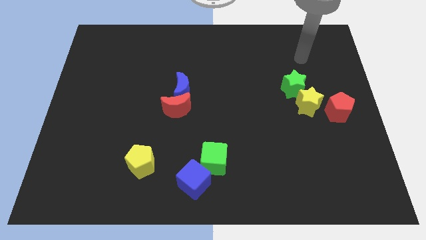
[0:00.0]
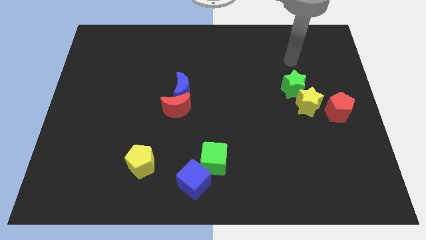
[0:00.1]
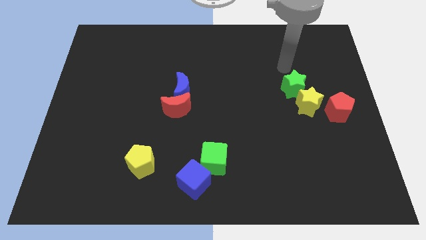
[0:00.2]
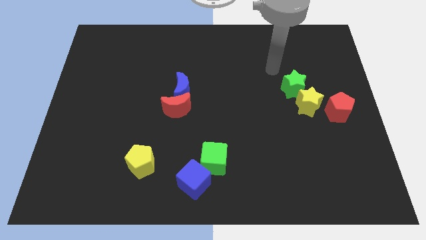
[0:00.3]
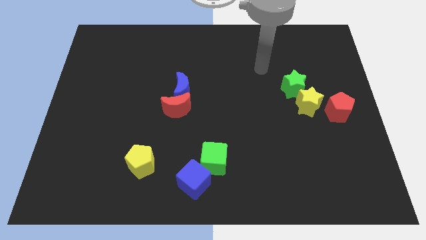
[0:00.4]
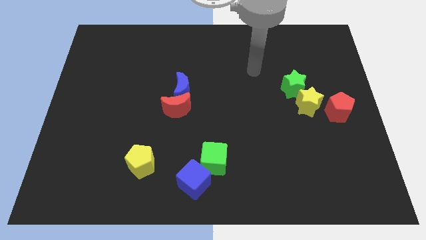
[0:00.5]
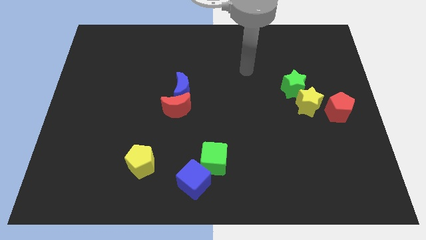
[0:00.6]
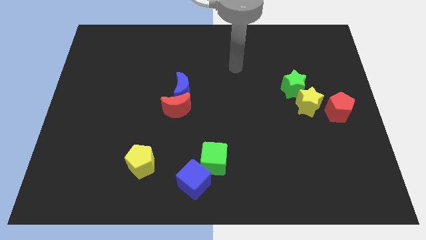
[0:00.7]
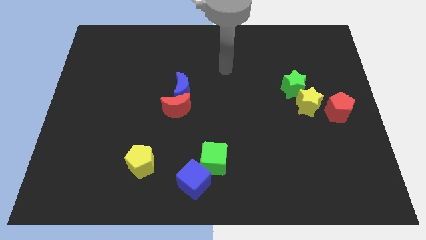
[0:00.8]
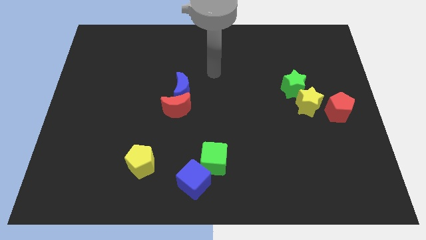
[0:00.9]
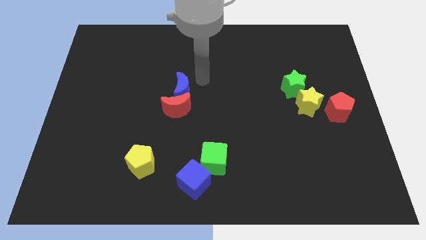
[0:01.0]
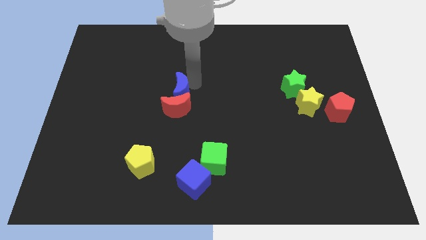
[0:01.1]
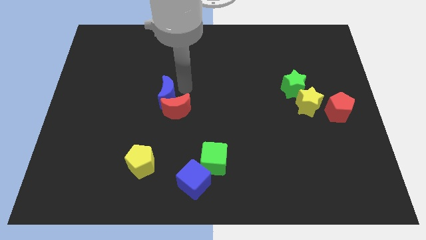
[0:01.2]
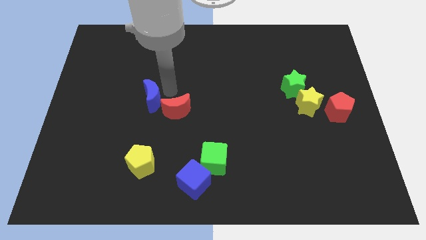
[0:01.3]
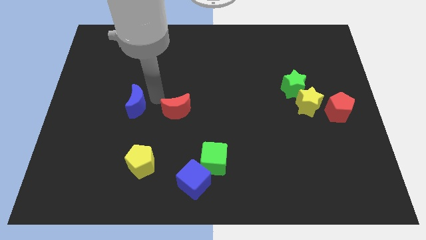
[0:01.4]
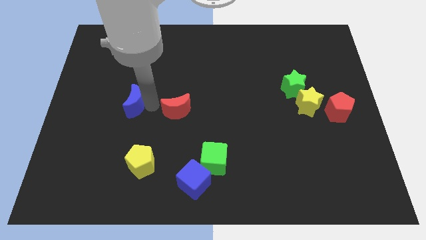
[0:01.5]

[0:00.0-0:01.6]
move the red moon away from the blue moon

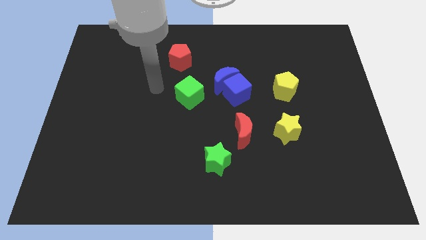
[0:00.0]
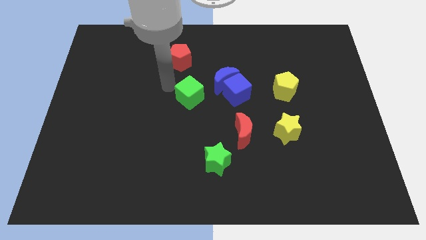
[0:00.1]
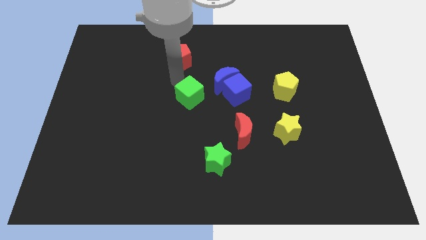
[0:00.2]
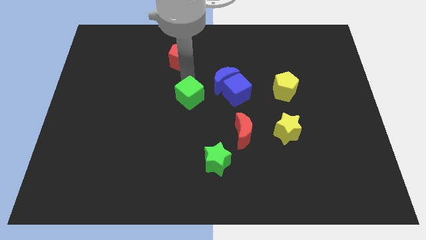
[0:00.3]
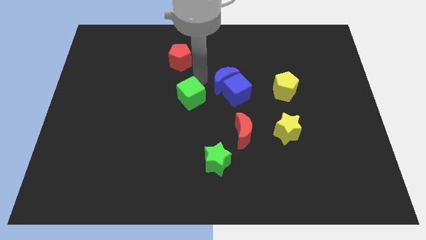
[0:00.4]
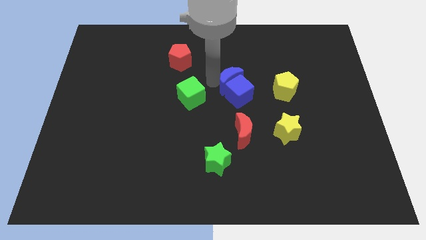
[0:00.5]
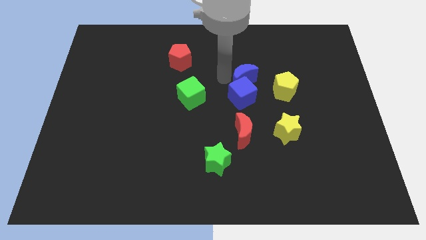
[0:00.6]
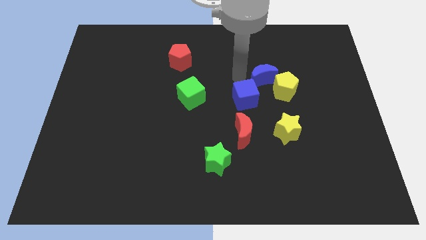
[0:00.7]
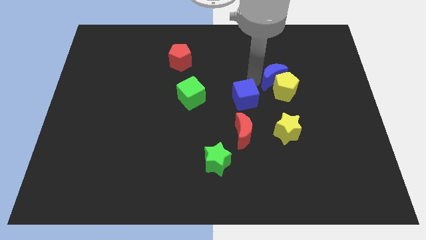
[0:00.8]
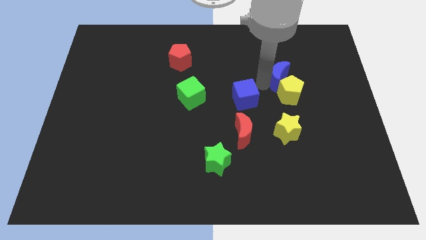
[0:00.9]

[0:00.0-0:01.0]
move the blue cube away from the blue moon

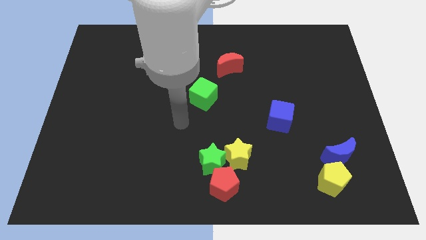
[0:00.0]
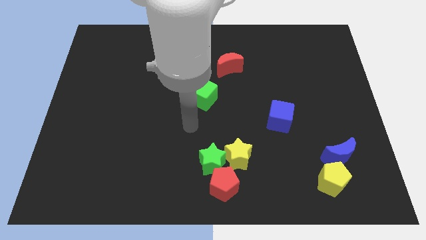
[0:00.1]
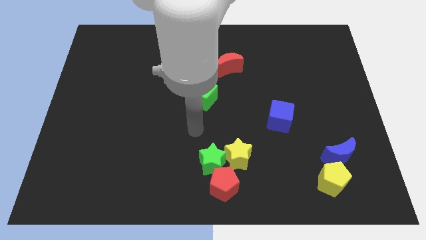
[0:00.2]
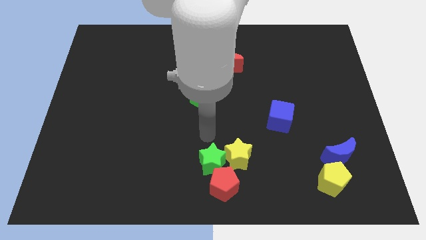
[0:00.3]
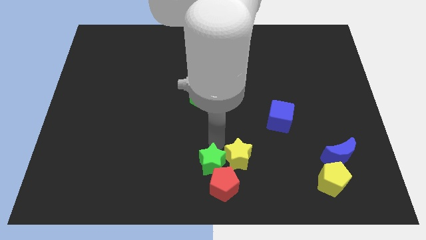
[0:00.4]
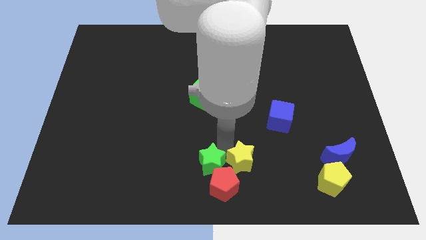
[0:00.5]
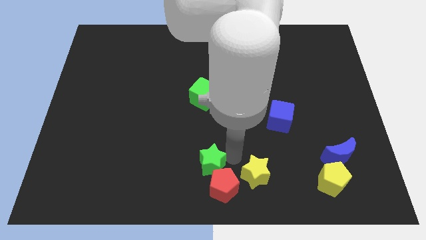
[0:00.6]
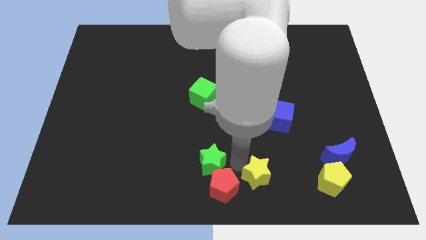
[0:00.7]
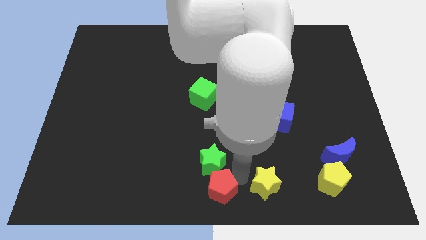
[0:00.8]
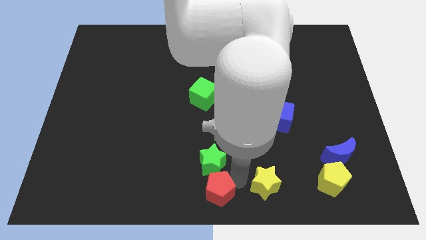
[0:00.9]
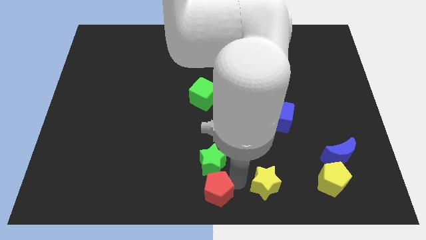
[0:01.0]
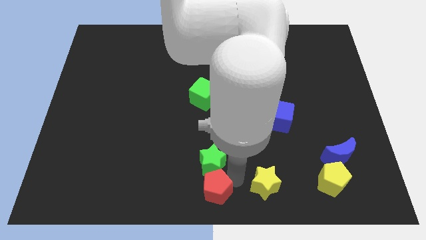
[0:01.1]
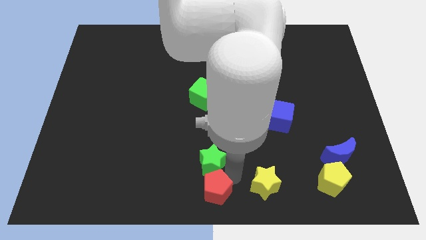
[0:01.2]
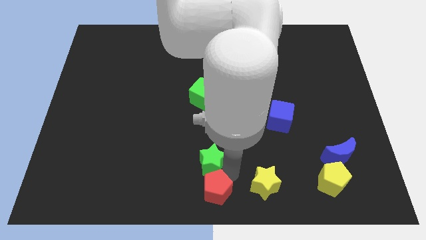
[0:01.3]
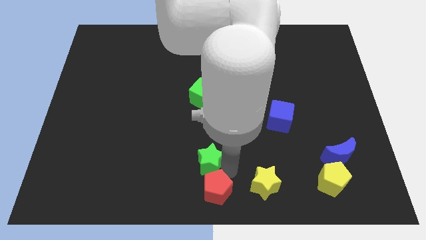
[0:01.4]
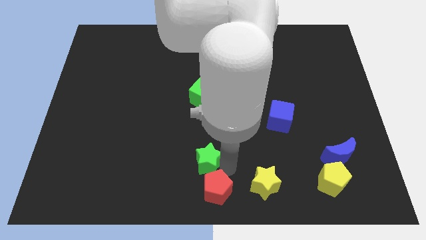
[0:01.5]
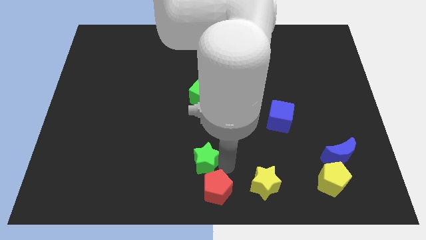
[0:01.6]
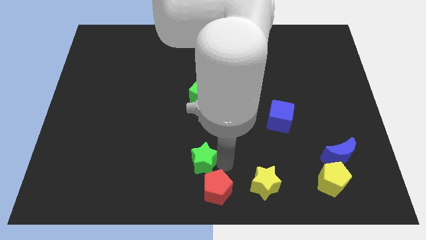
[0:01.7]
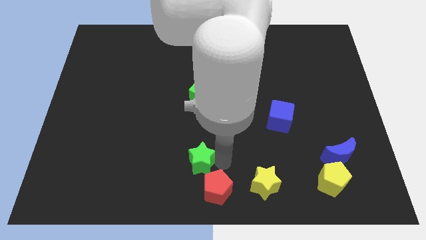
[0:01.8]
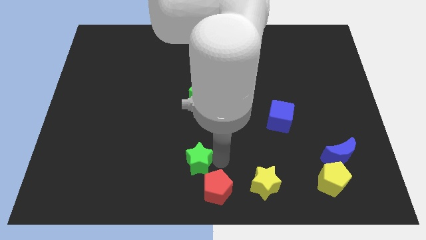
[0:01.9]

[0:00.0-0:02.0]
pull the green star apart from the yellow star and red pentagon

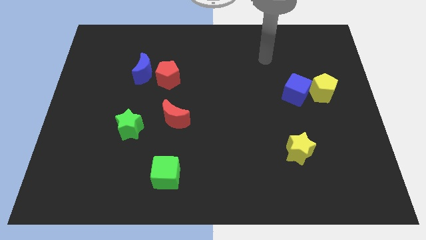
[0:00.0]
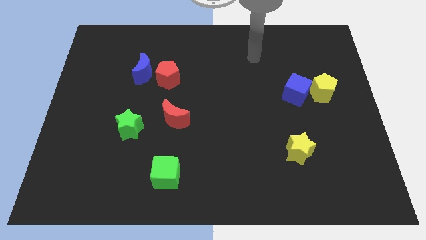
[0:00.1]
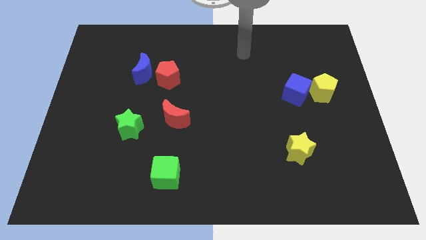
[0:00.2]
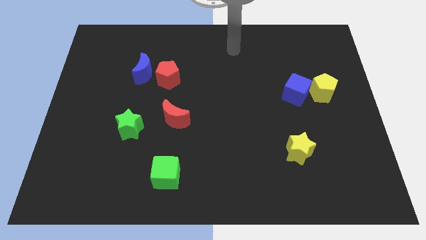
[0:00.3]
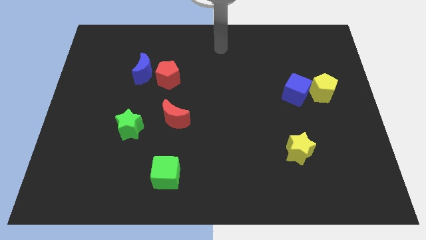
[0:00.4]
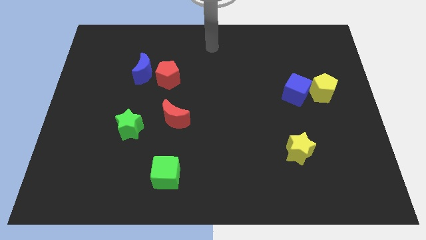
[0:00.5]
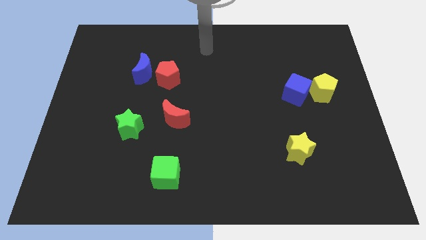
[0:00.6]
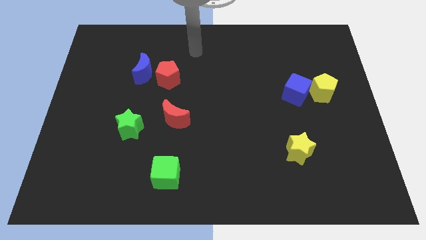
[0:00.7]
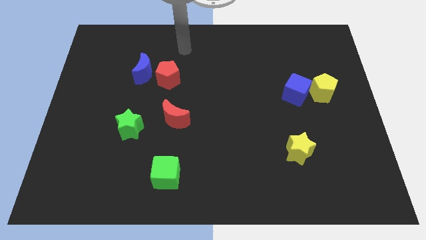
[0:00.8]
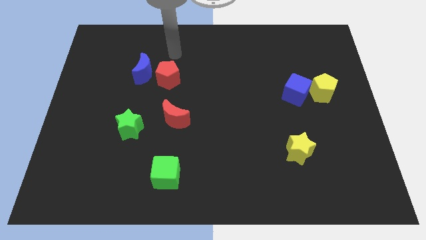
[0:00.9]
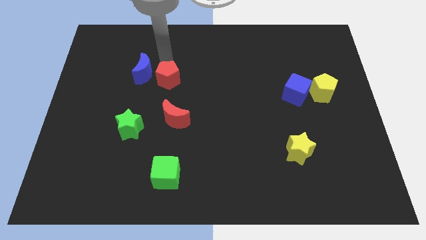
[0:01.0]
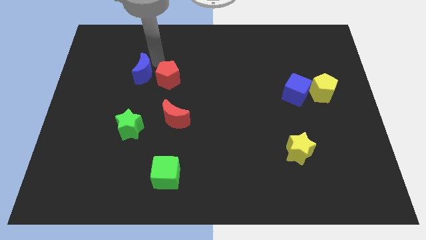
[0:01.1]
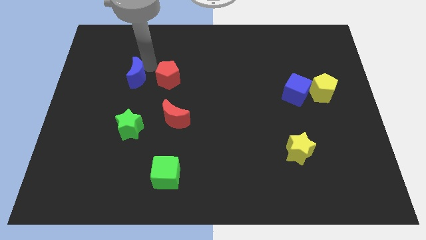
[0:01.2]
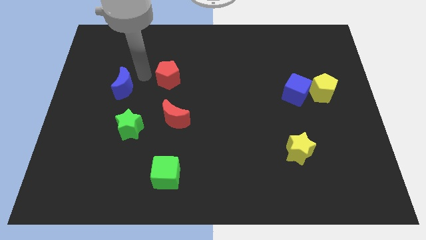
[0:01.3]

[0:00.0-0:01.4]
move the red pentagon away from the blue moon

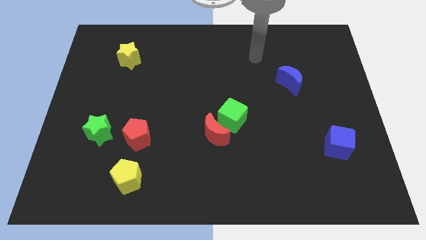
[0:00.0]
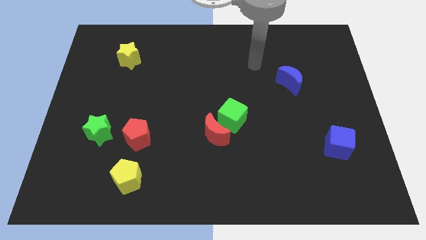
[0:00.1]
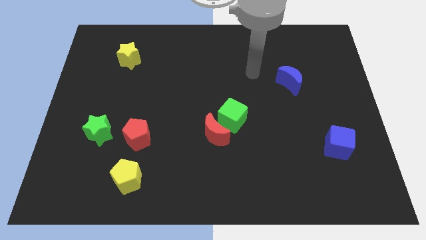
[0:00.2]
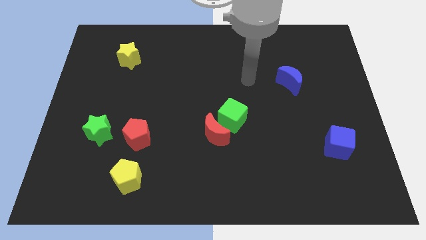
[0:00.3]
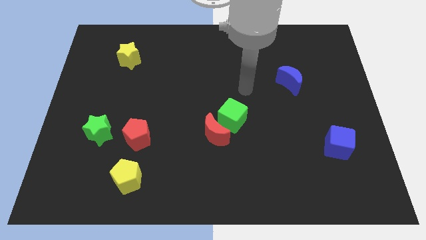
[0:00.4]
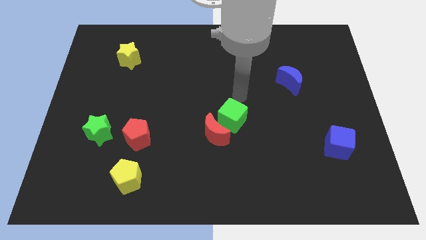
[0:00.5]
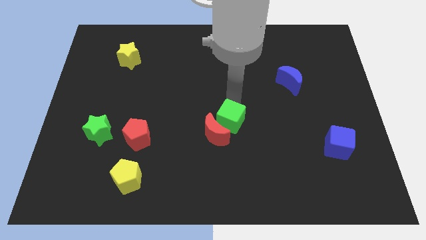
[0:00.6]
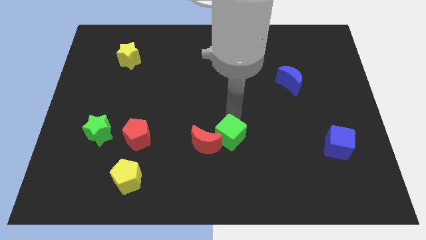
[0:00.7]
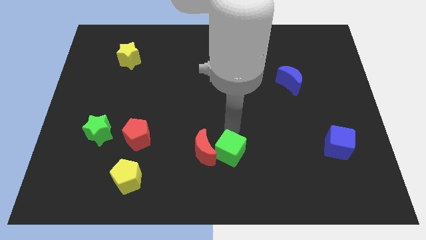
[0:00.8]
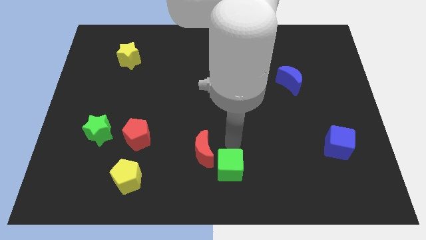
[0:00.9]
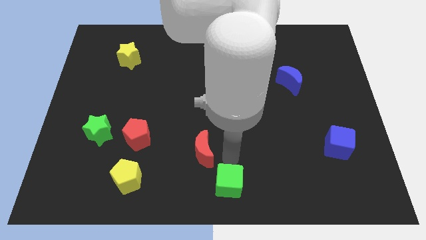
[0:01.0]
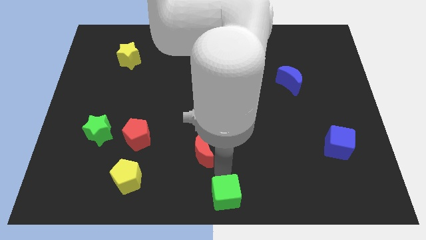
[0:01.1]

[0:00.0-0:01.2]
move the red moon away from the green cube

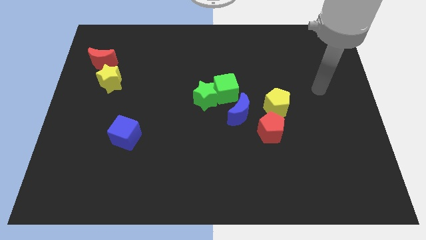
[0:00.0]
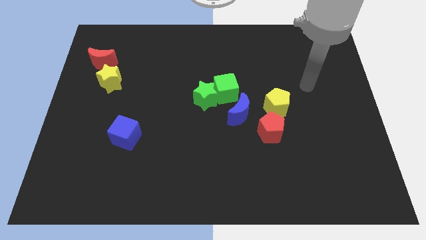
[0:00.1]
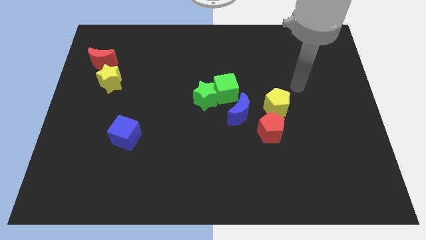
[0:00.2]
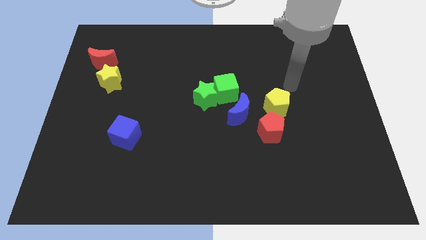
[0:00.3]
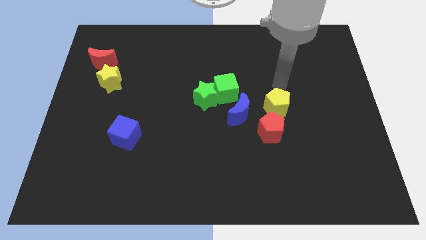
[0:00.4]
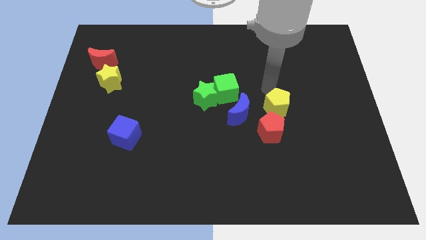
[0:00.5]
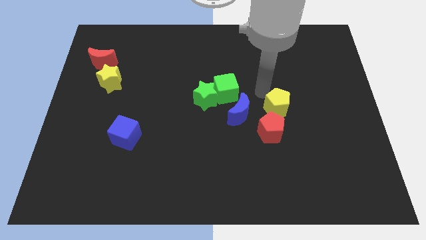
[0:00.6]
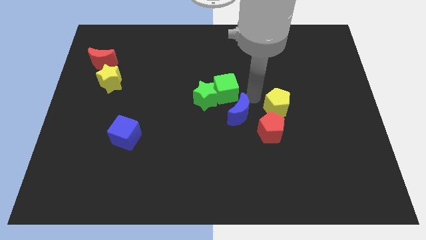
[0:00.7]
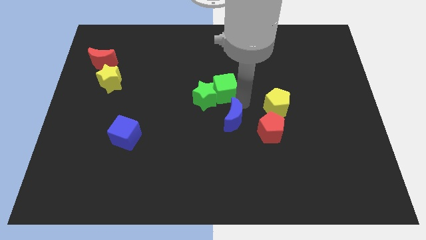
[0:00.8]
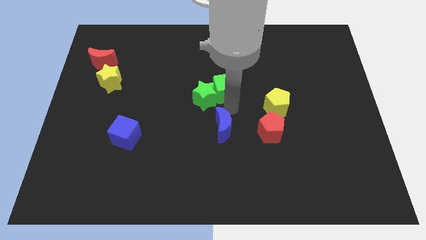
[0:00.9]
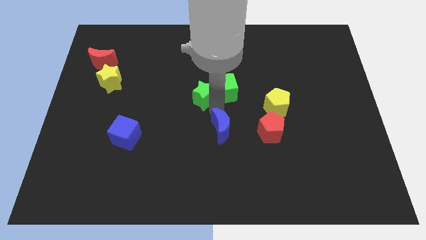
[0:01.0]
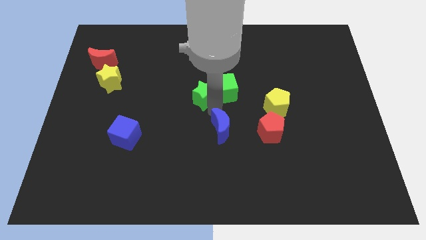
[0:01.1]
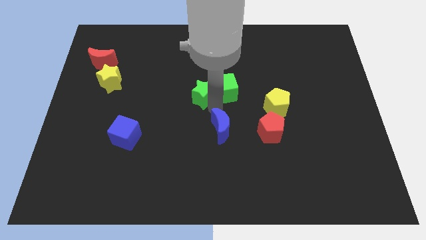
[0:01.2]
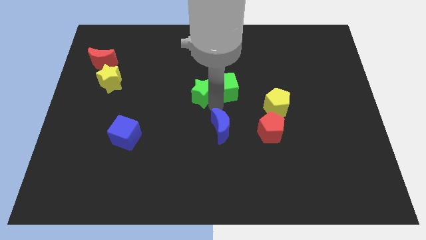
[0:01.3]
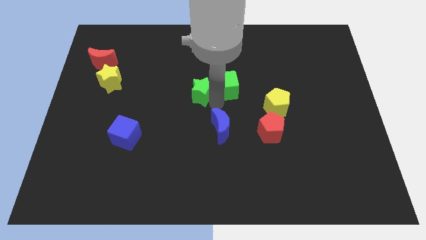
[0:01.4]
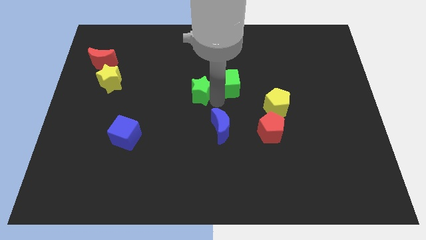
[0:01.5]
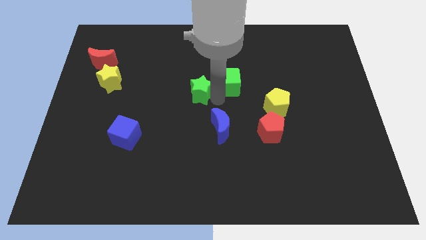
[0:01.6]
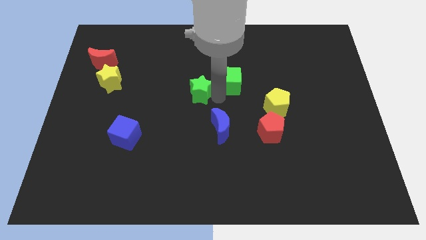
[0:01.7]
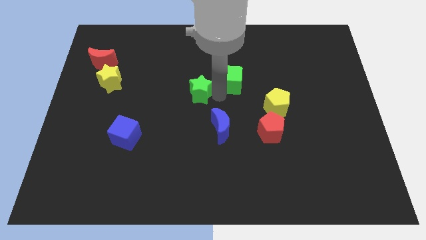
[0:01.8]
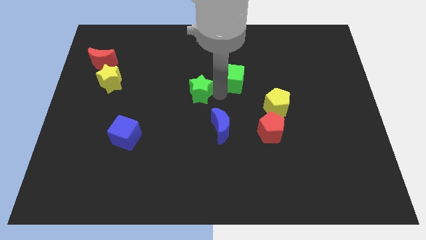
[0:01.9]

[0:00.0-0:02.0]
move the green cube away from the green star and blue moon

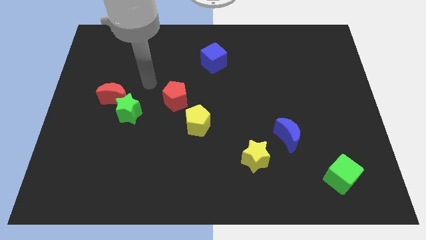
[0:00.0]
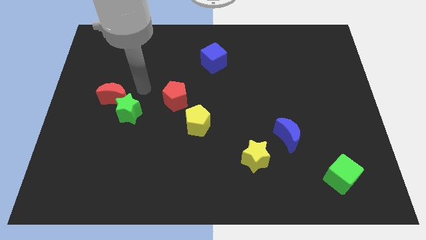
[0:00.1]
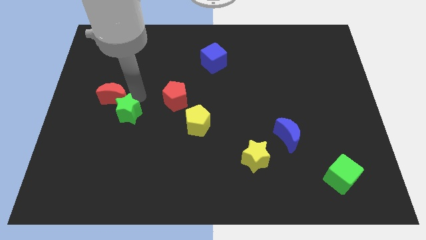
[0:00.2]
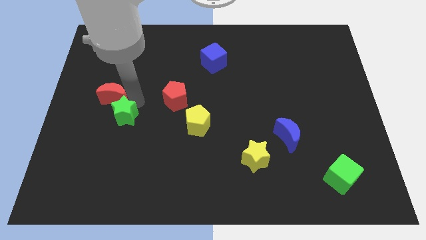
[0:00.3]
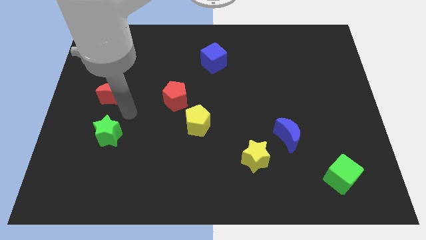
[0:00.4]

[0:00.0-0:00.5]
separate the red moon from the green star
